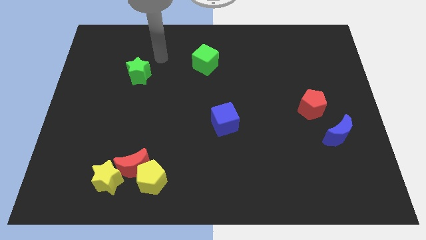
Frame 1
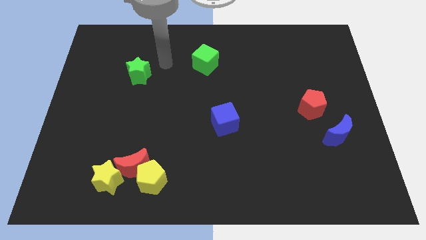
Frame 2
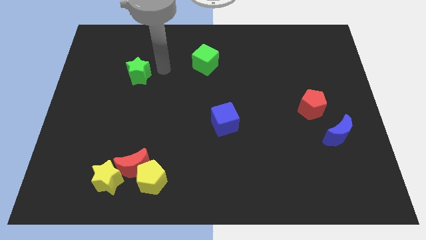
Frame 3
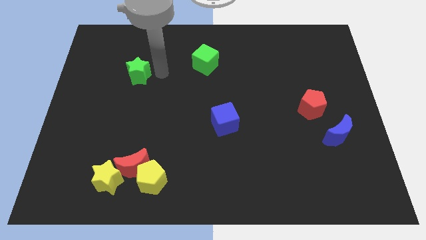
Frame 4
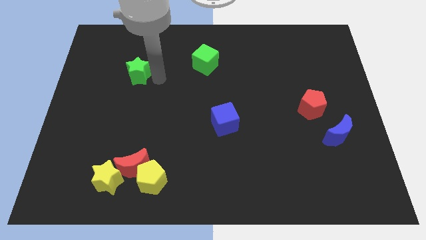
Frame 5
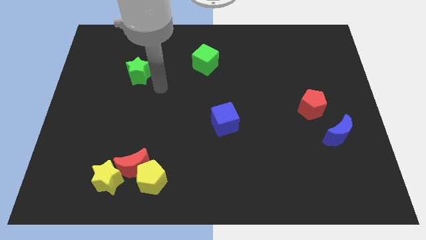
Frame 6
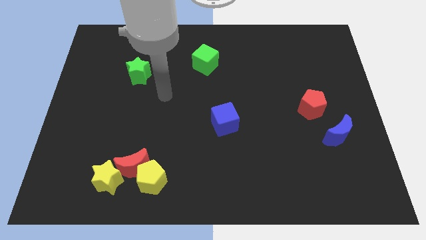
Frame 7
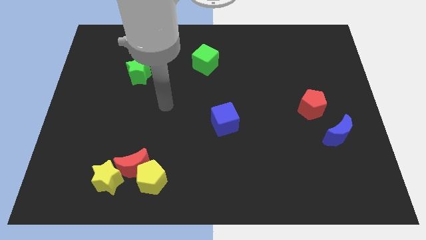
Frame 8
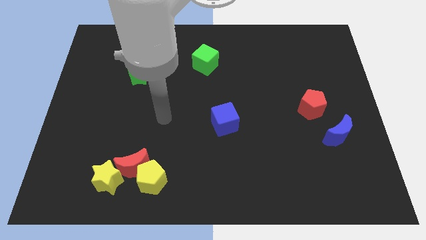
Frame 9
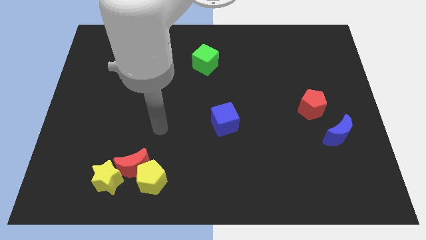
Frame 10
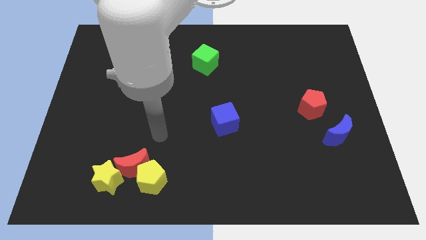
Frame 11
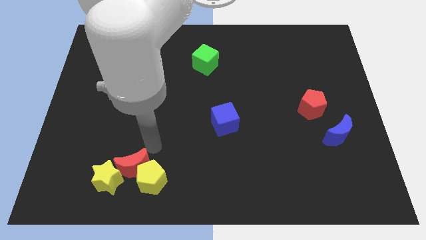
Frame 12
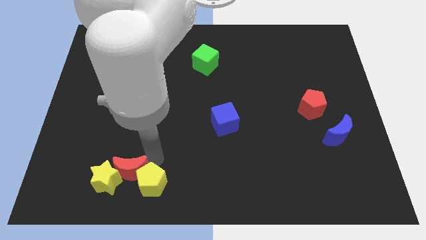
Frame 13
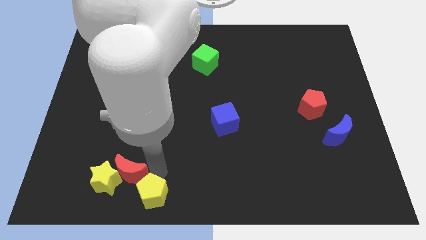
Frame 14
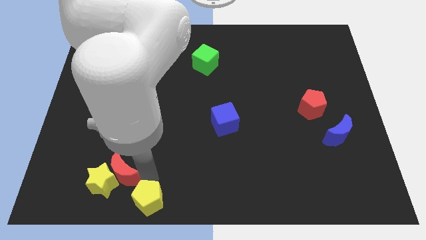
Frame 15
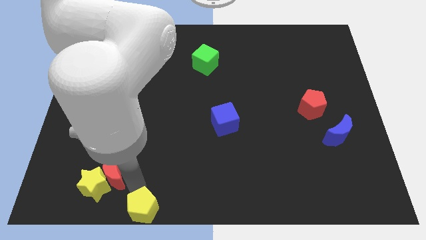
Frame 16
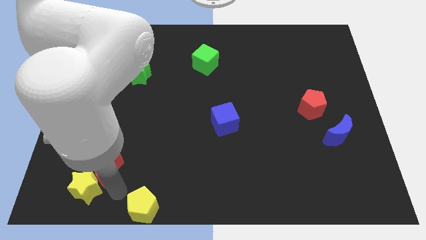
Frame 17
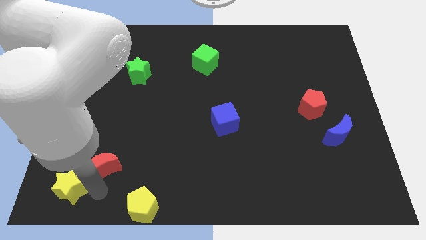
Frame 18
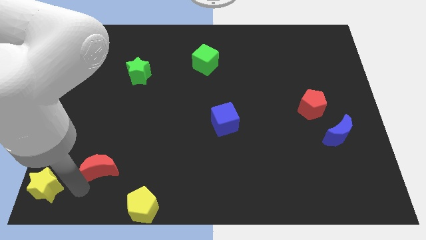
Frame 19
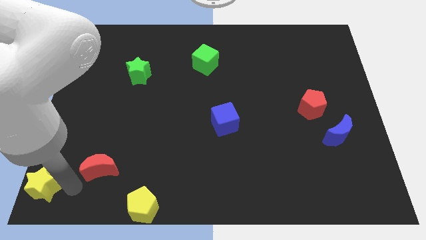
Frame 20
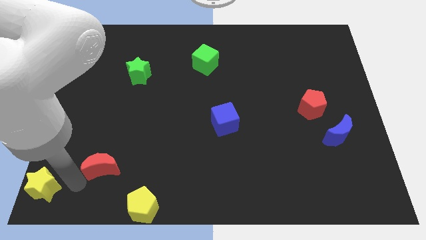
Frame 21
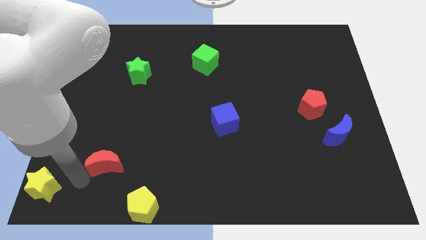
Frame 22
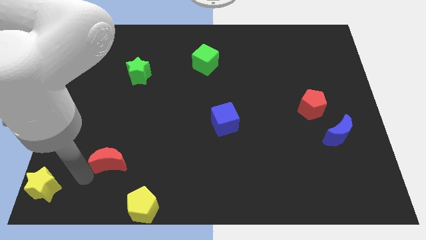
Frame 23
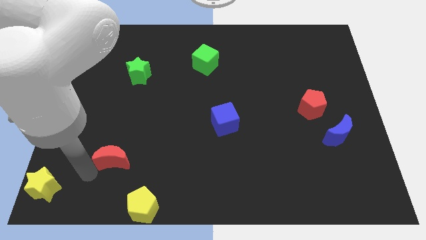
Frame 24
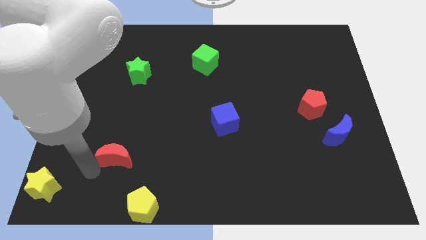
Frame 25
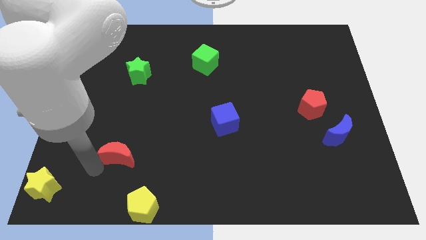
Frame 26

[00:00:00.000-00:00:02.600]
move the red moon away from the yellow pentagon and yellow star

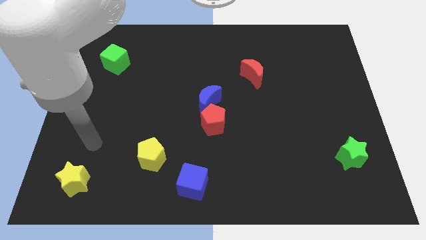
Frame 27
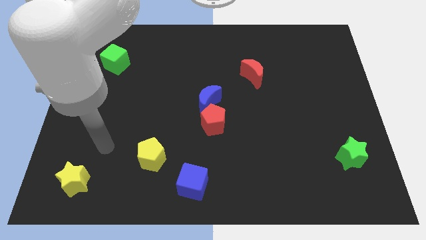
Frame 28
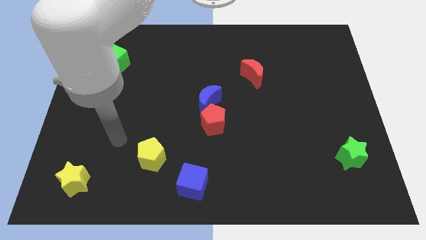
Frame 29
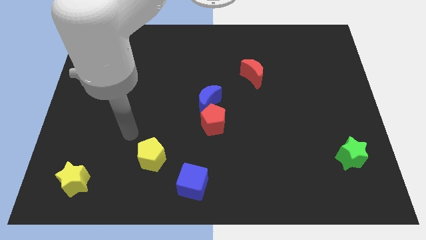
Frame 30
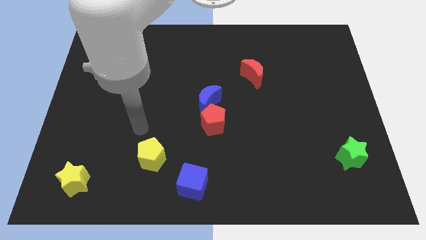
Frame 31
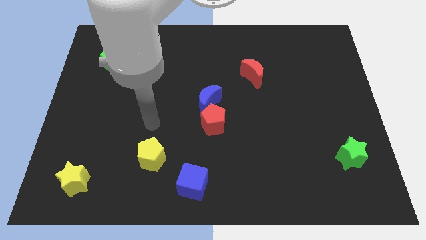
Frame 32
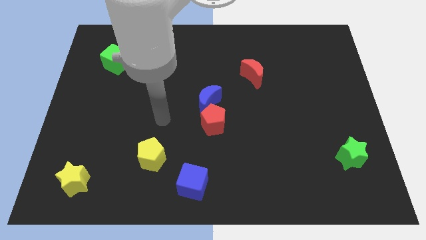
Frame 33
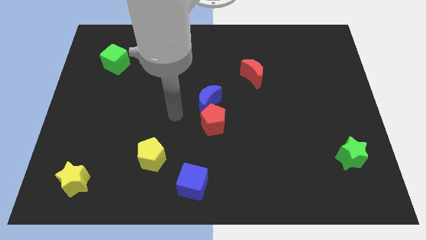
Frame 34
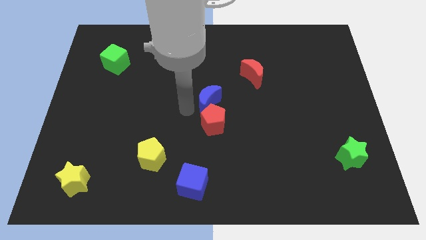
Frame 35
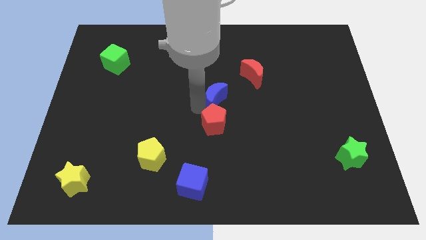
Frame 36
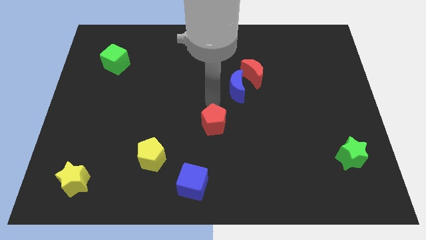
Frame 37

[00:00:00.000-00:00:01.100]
pull the red pentagon apart from the blue moon

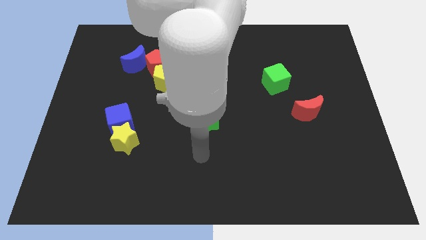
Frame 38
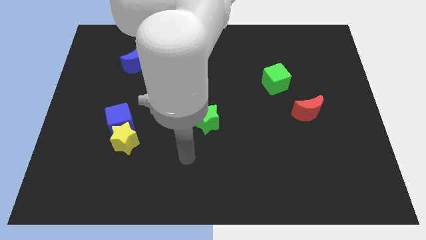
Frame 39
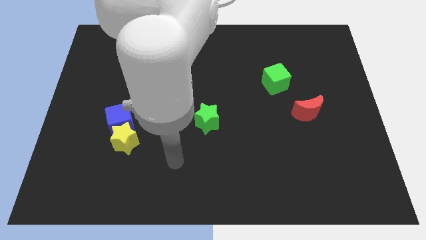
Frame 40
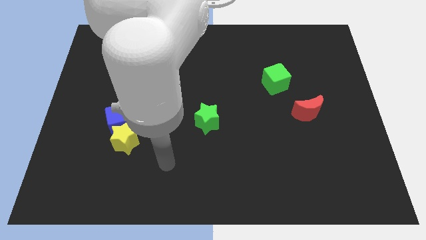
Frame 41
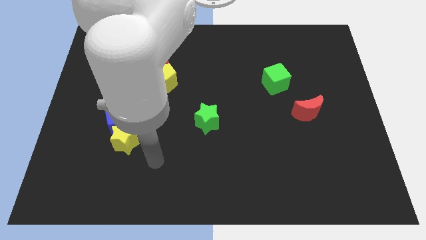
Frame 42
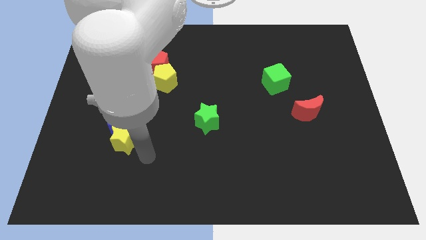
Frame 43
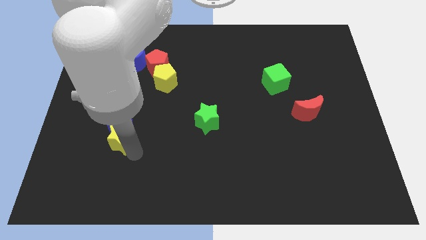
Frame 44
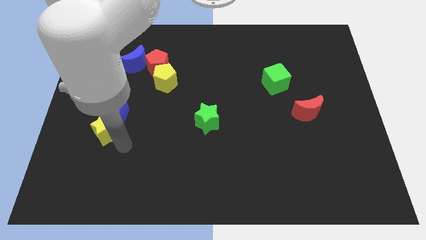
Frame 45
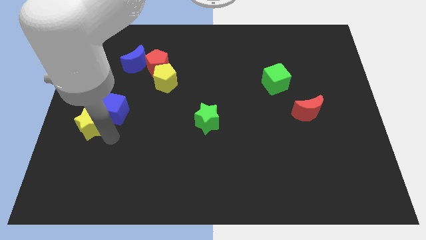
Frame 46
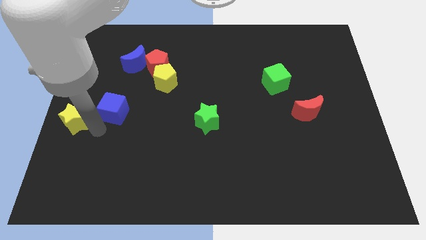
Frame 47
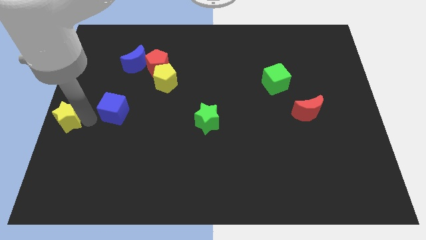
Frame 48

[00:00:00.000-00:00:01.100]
separate the blue cube from the yellow star

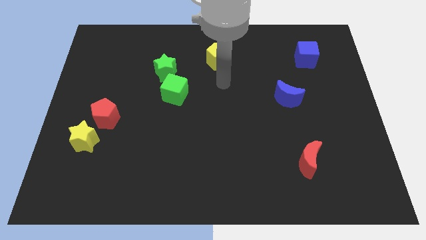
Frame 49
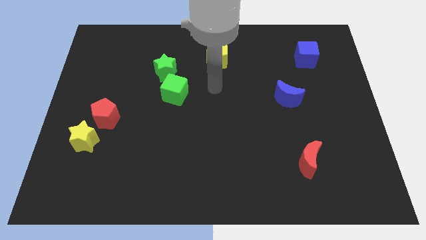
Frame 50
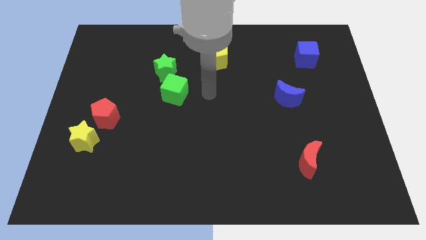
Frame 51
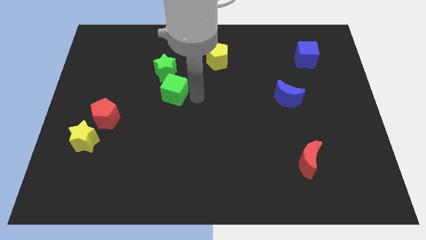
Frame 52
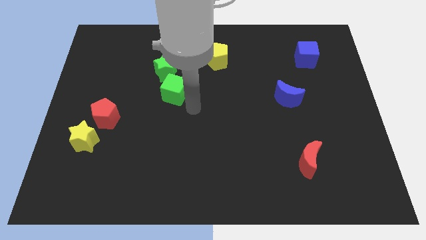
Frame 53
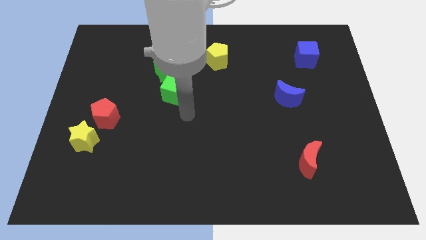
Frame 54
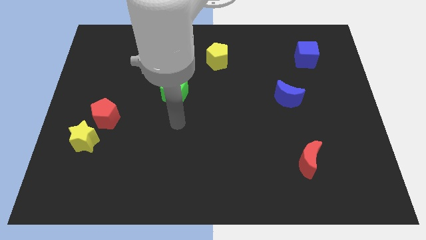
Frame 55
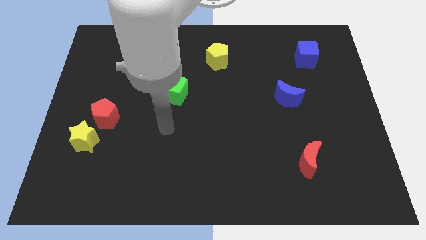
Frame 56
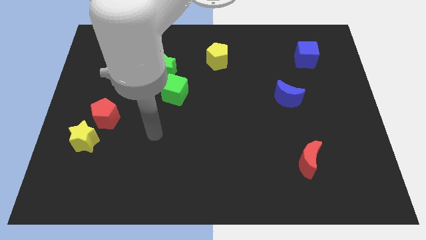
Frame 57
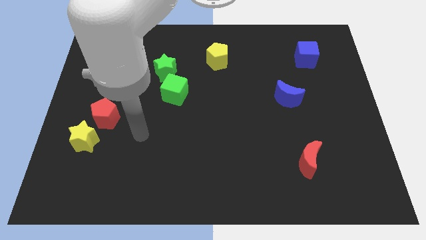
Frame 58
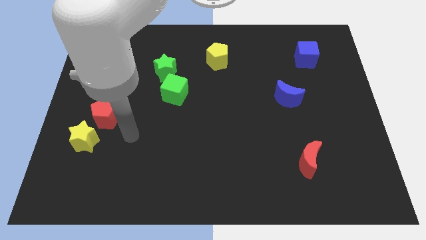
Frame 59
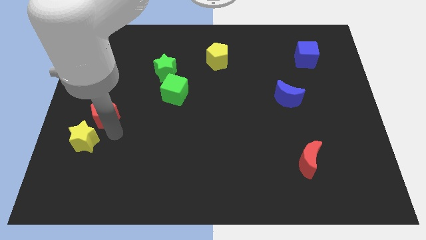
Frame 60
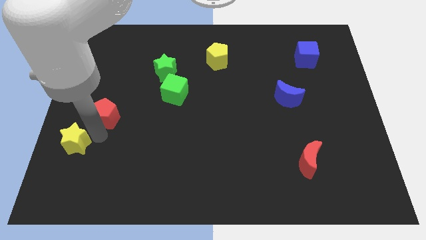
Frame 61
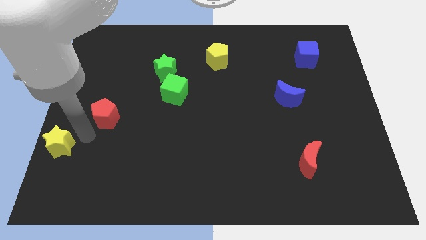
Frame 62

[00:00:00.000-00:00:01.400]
move the red pentagon away from the yellow star

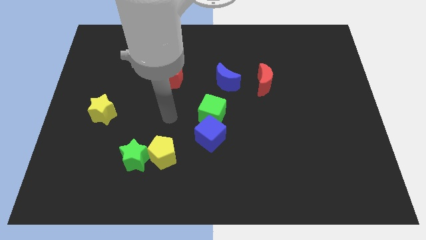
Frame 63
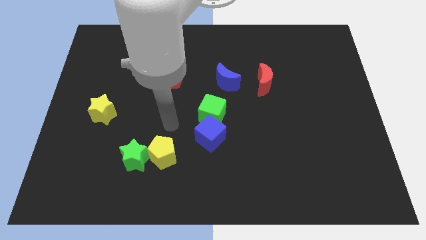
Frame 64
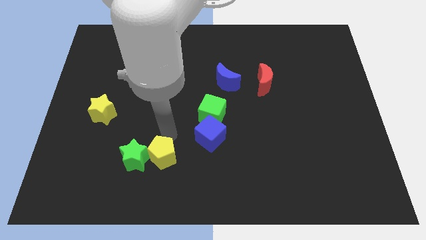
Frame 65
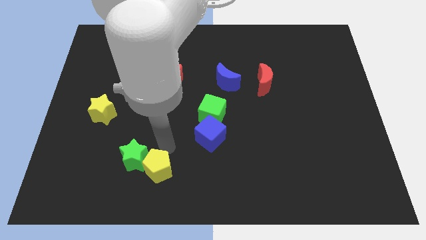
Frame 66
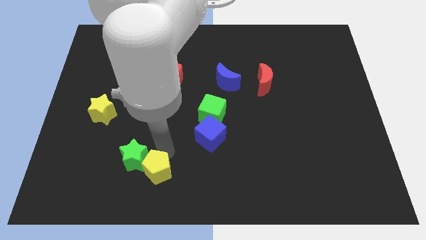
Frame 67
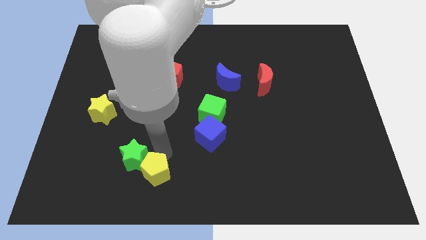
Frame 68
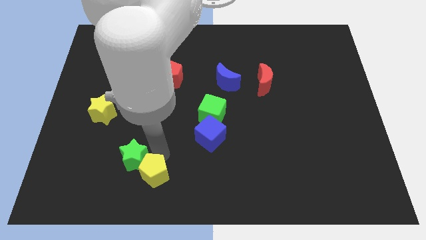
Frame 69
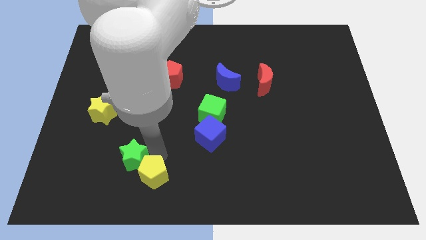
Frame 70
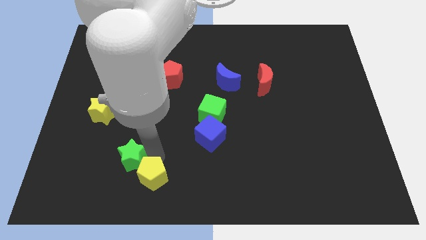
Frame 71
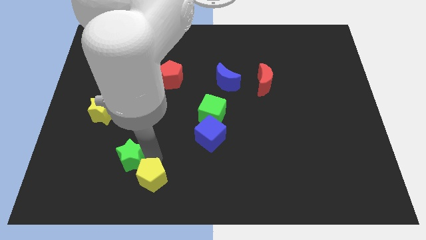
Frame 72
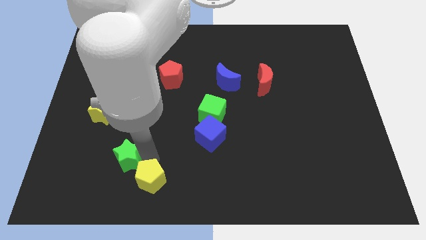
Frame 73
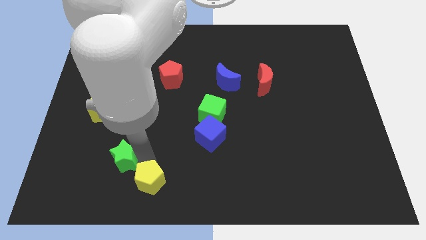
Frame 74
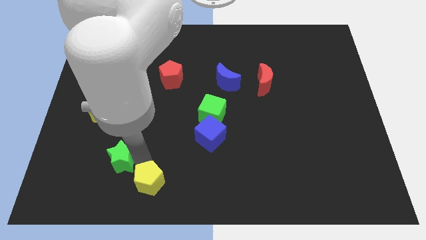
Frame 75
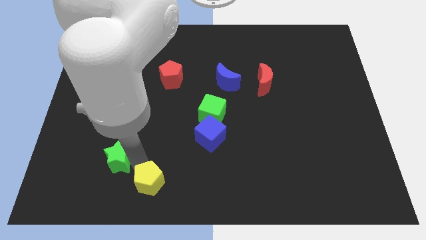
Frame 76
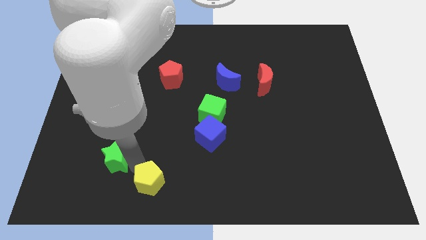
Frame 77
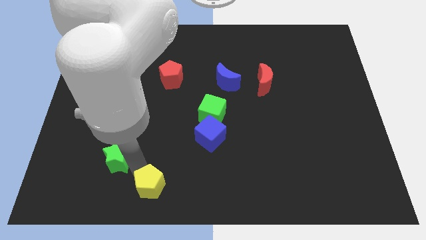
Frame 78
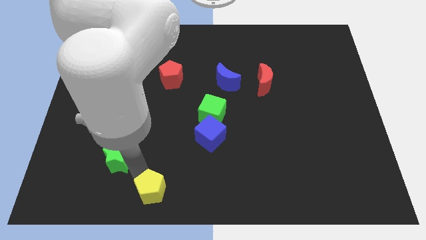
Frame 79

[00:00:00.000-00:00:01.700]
separate the green star from the yellow pentagon

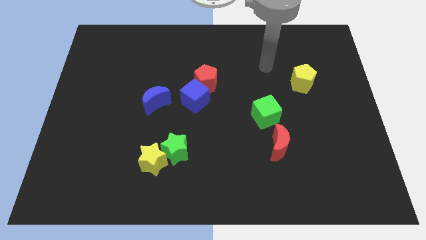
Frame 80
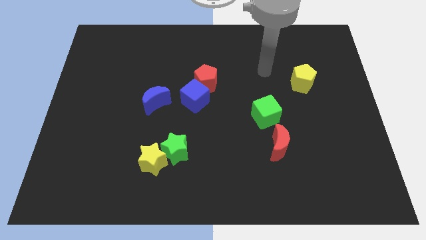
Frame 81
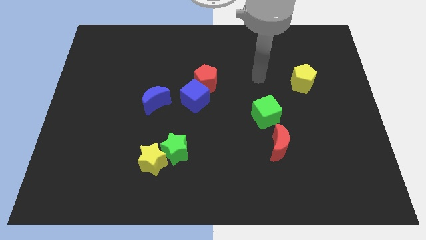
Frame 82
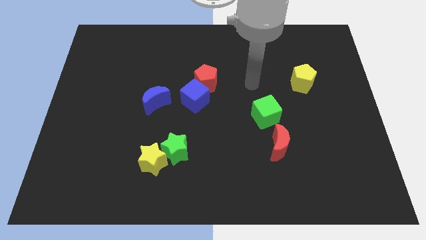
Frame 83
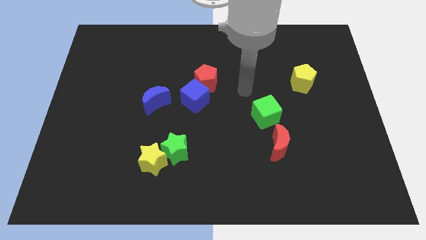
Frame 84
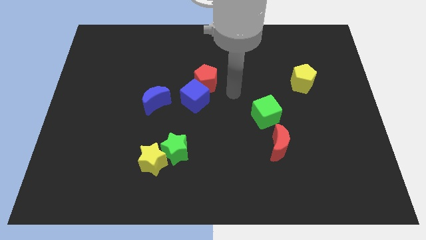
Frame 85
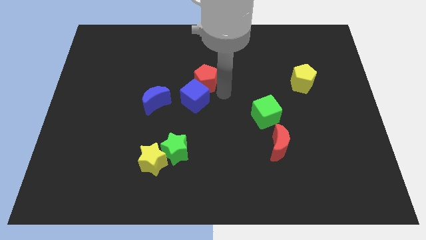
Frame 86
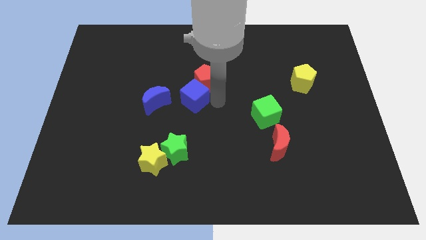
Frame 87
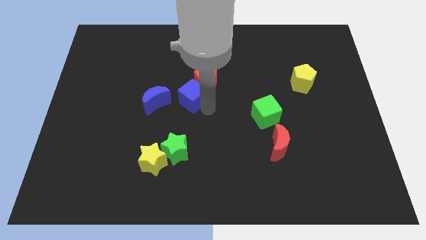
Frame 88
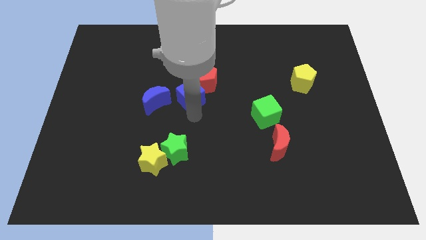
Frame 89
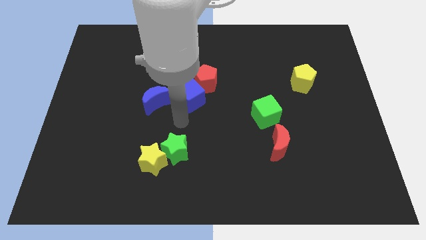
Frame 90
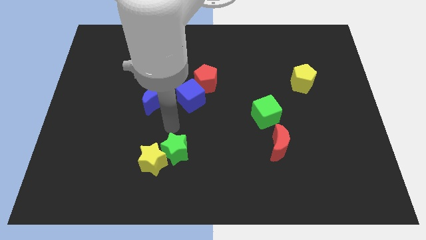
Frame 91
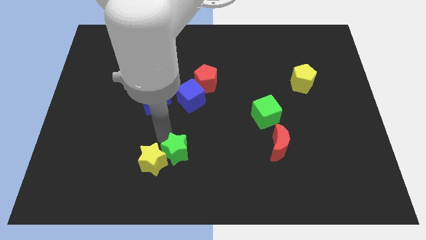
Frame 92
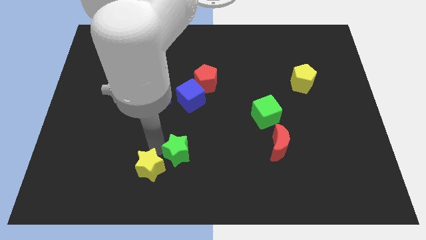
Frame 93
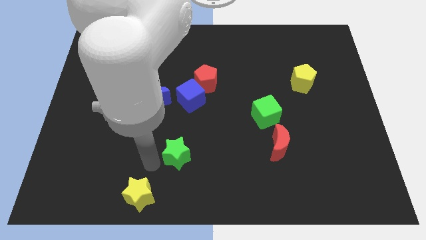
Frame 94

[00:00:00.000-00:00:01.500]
move the green star away from the yellow star
